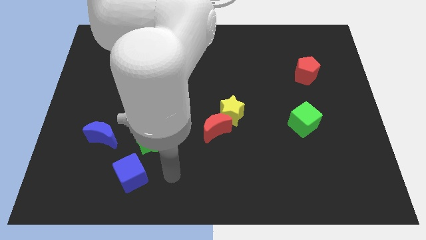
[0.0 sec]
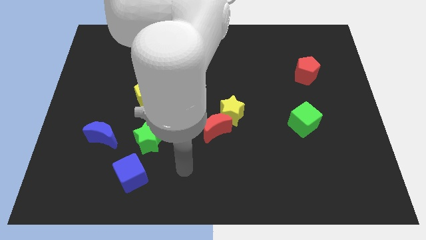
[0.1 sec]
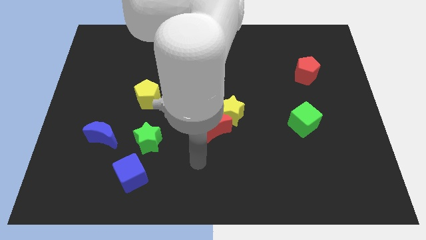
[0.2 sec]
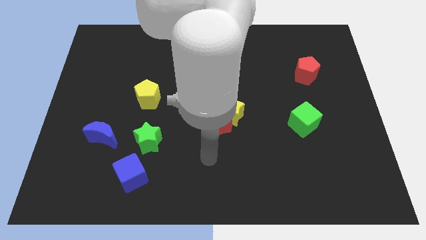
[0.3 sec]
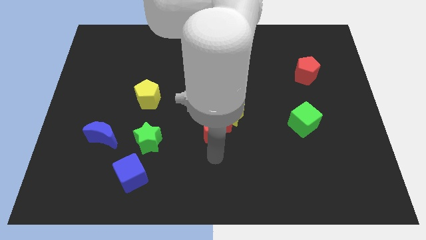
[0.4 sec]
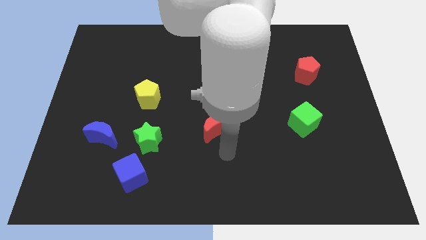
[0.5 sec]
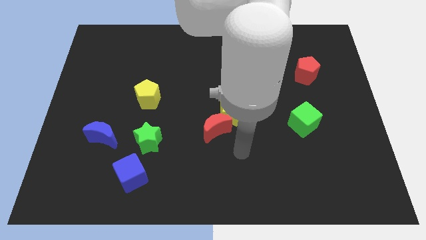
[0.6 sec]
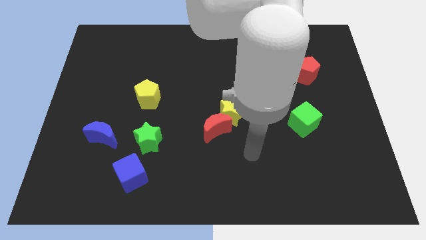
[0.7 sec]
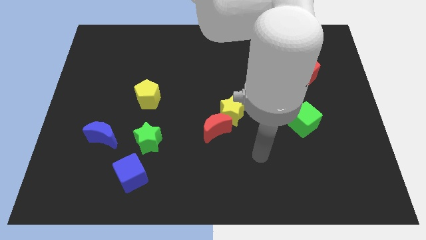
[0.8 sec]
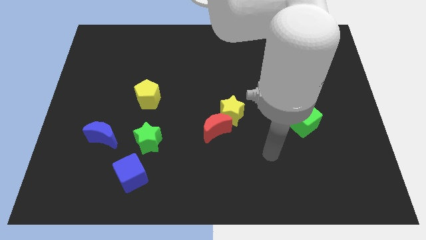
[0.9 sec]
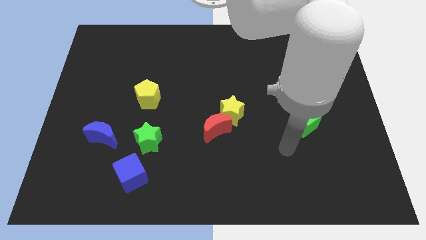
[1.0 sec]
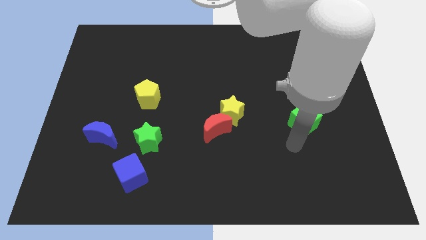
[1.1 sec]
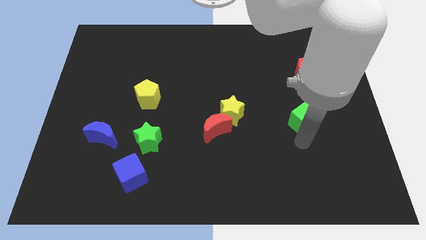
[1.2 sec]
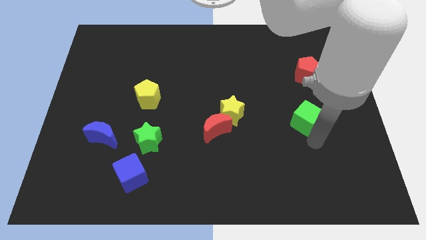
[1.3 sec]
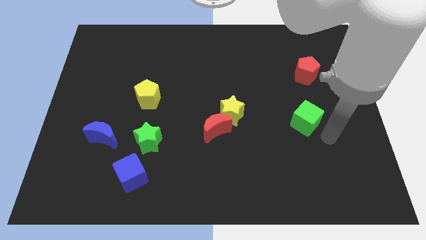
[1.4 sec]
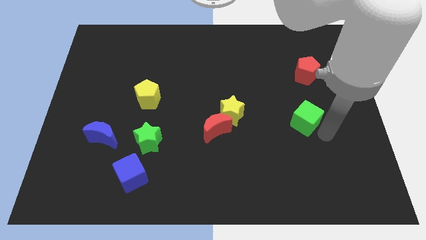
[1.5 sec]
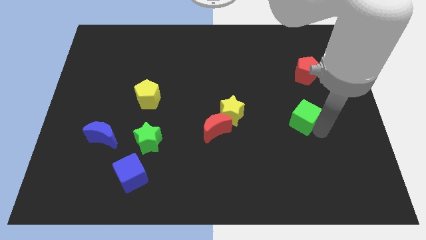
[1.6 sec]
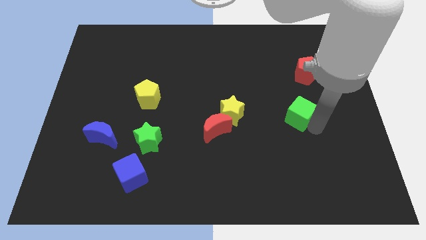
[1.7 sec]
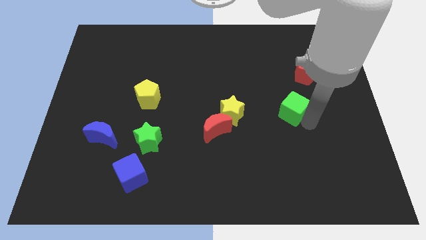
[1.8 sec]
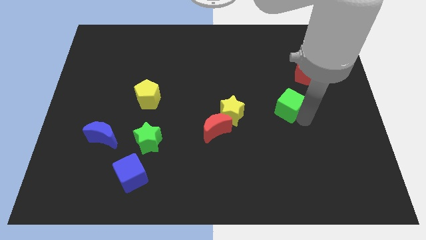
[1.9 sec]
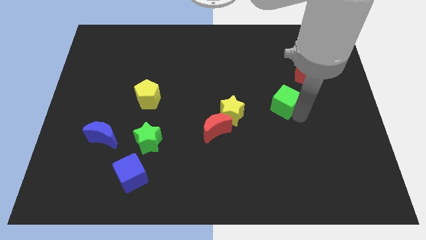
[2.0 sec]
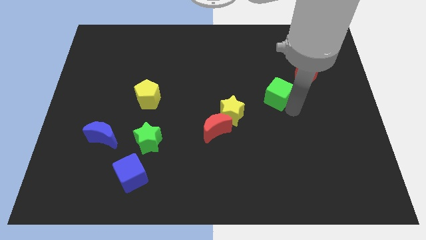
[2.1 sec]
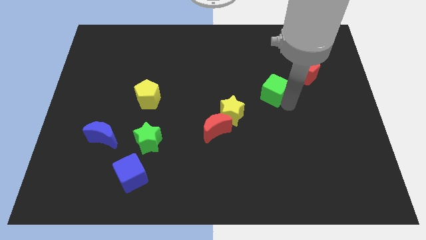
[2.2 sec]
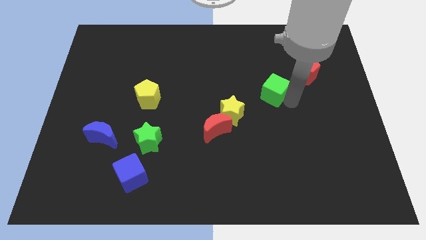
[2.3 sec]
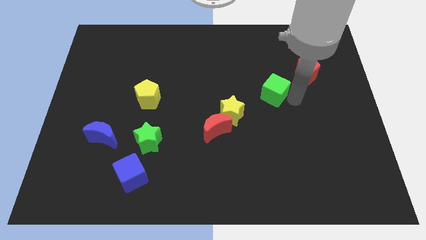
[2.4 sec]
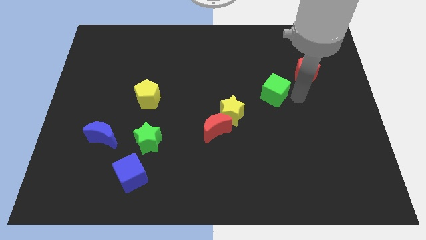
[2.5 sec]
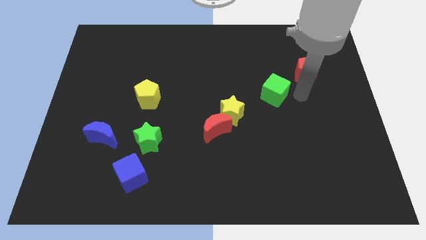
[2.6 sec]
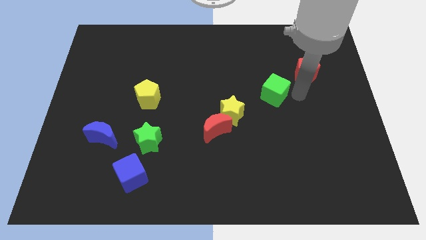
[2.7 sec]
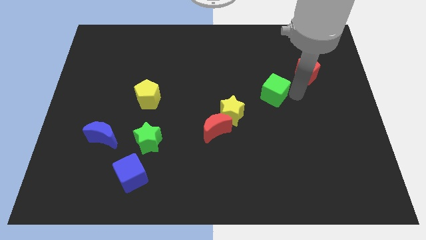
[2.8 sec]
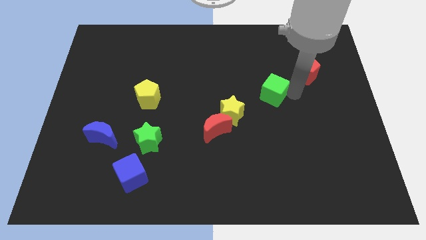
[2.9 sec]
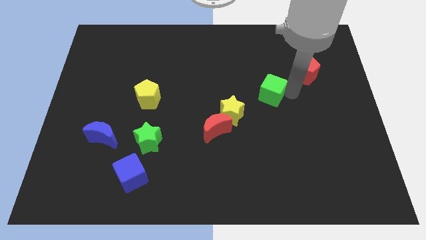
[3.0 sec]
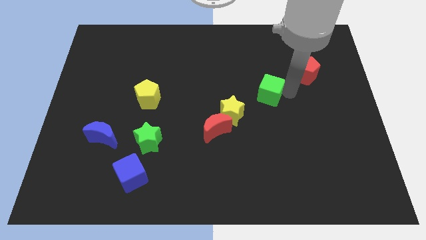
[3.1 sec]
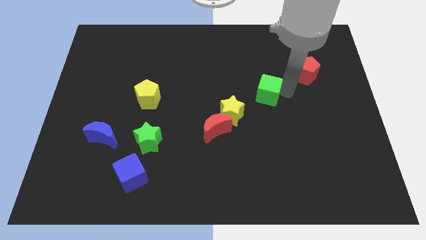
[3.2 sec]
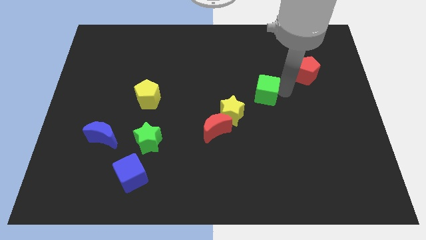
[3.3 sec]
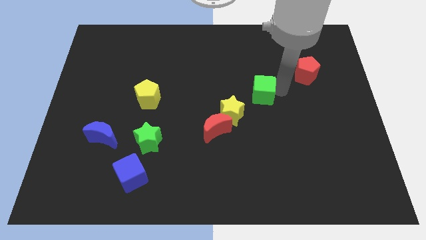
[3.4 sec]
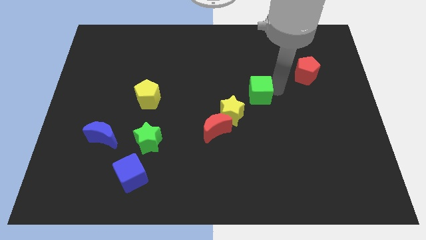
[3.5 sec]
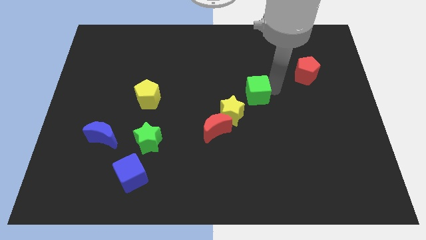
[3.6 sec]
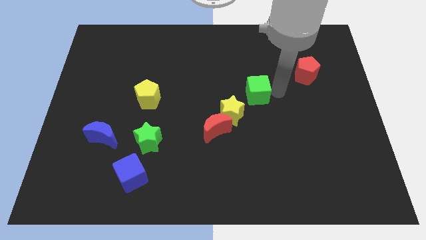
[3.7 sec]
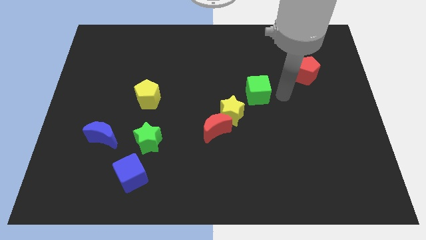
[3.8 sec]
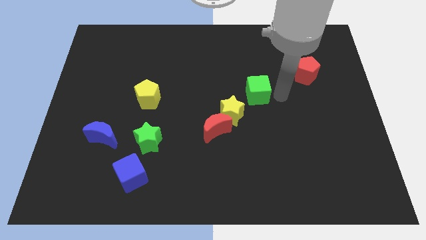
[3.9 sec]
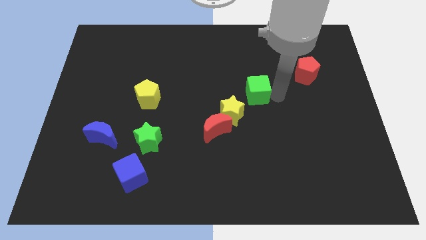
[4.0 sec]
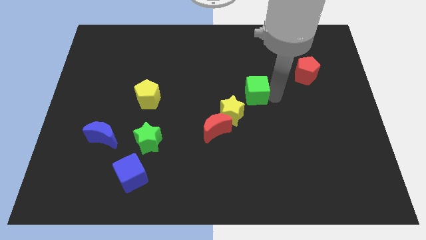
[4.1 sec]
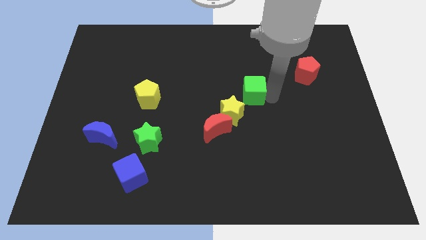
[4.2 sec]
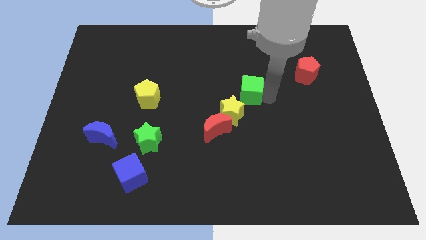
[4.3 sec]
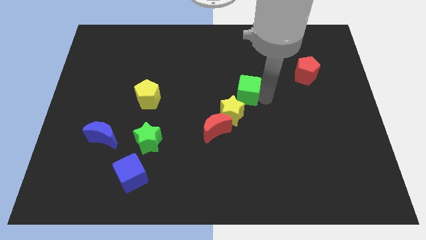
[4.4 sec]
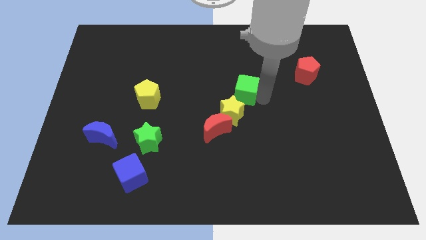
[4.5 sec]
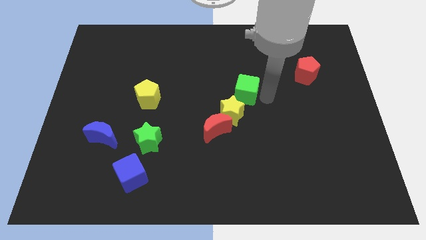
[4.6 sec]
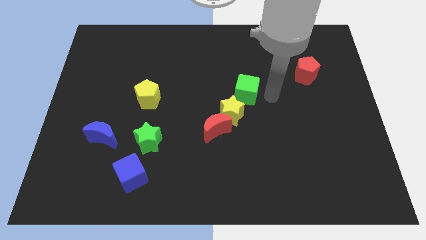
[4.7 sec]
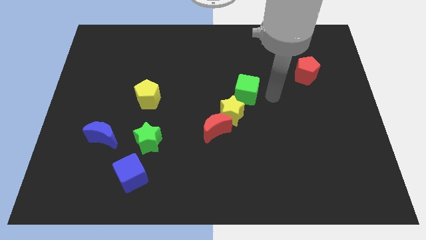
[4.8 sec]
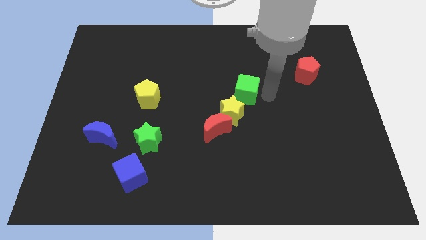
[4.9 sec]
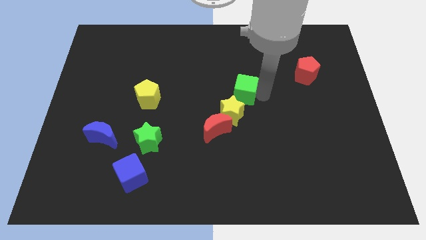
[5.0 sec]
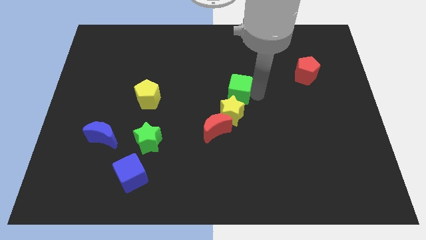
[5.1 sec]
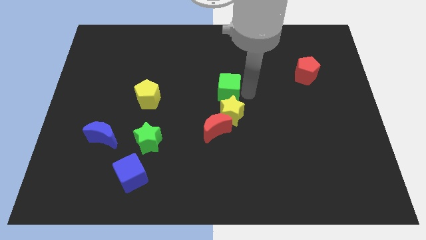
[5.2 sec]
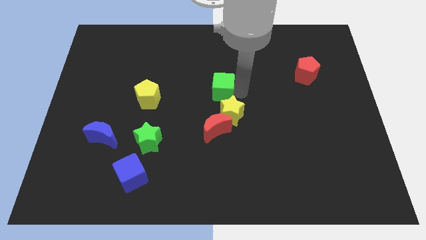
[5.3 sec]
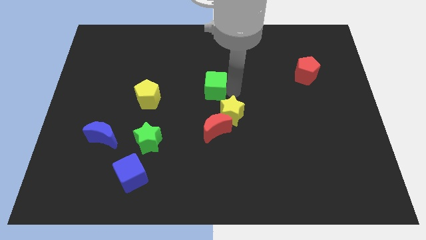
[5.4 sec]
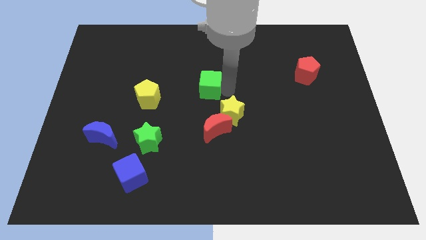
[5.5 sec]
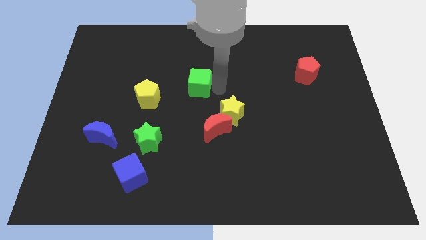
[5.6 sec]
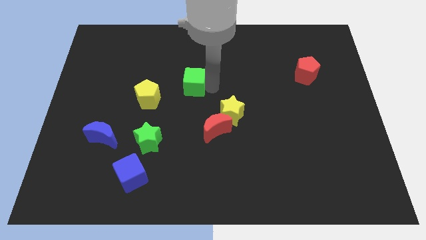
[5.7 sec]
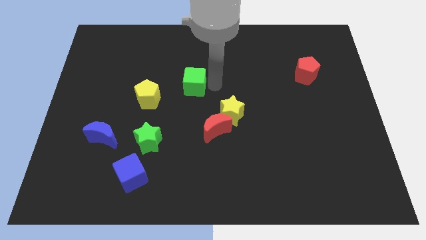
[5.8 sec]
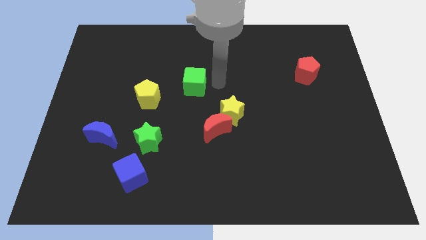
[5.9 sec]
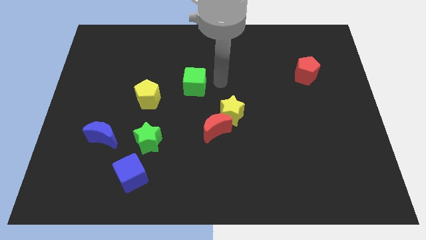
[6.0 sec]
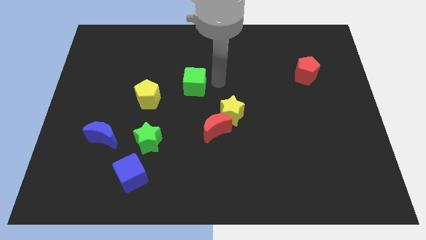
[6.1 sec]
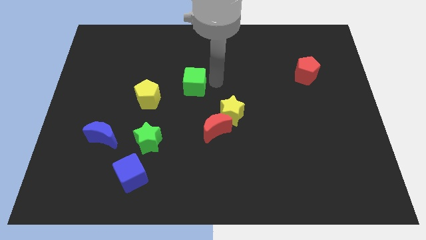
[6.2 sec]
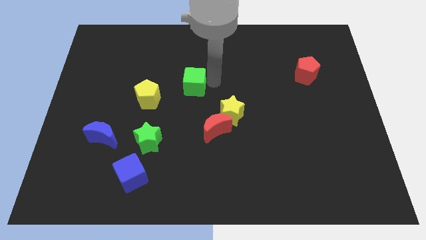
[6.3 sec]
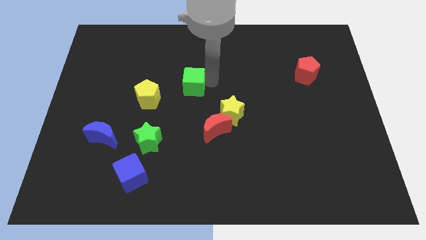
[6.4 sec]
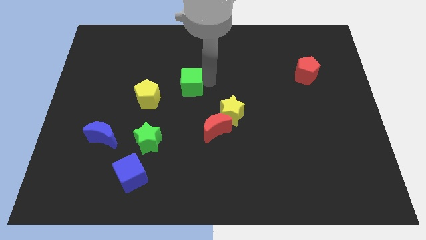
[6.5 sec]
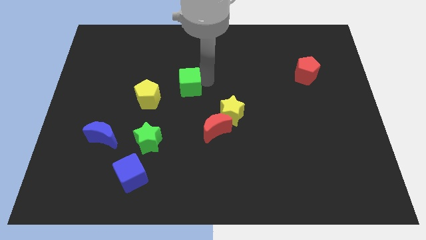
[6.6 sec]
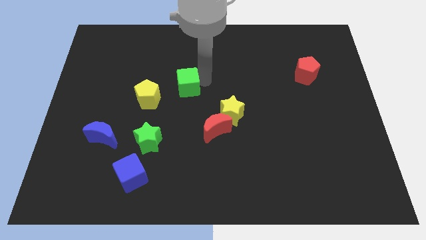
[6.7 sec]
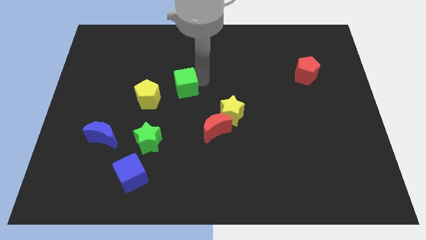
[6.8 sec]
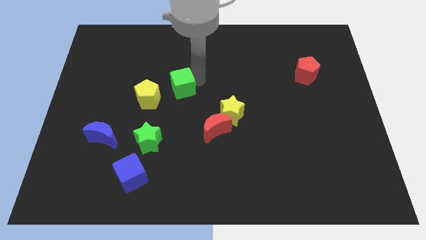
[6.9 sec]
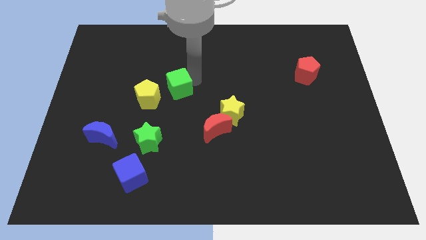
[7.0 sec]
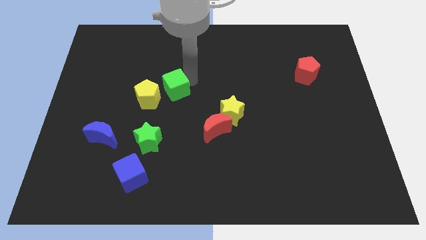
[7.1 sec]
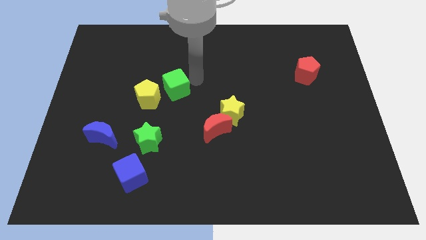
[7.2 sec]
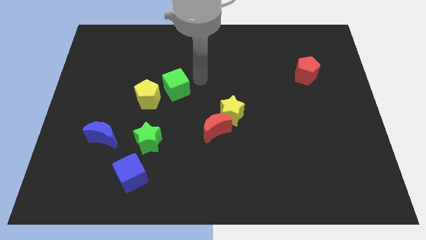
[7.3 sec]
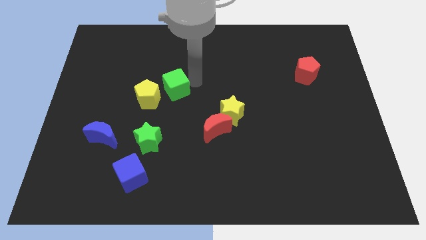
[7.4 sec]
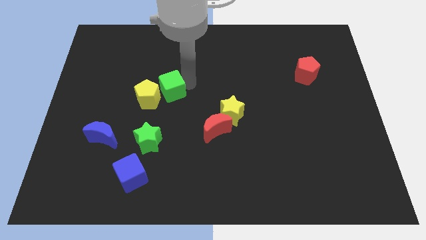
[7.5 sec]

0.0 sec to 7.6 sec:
push the green cube next to the yellow pentagon
